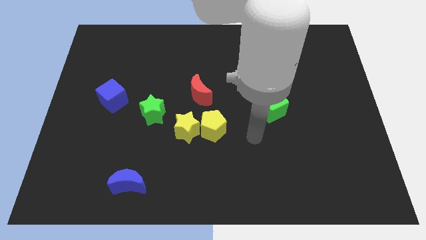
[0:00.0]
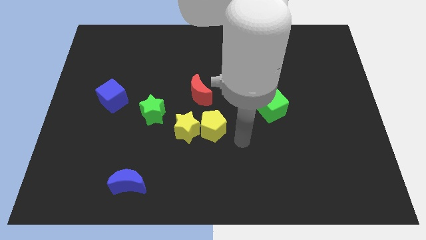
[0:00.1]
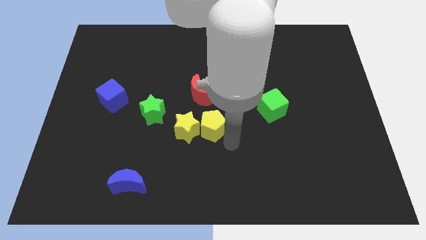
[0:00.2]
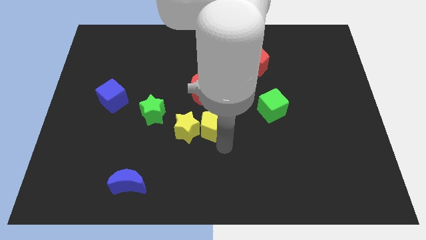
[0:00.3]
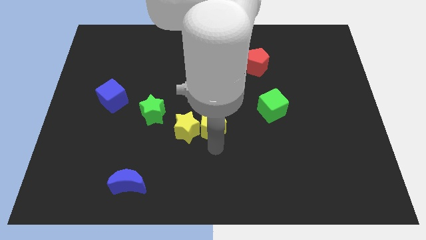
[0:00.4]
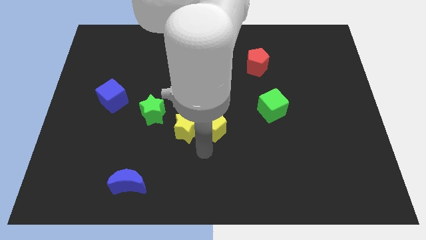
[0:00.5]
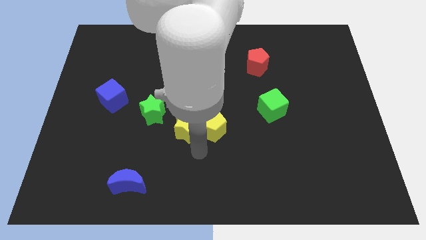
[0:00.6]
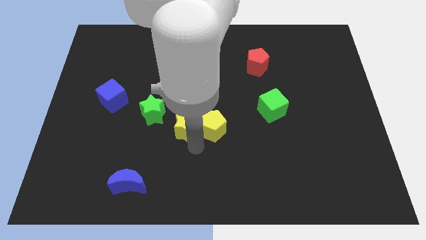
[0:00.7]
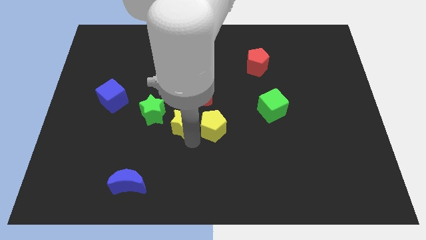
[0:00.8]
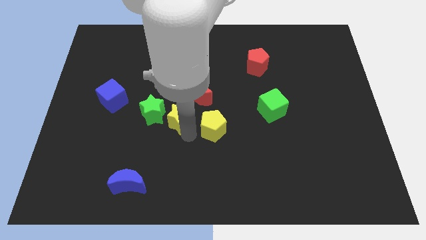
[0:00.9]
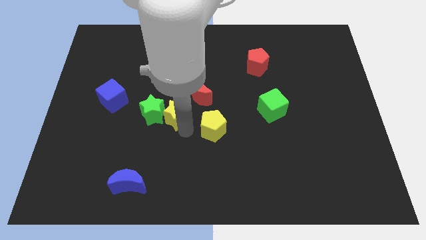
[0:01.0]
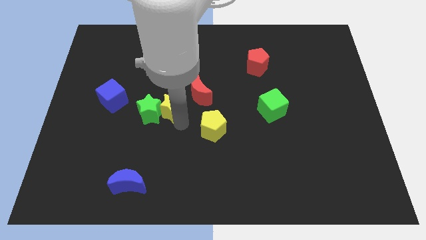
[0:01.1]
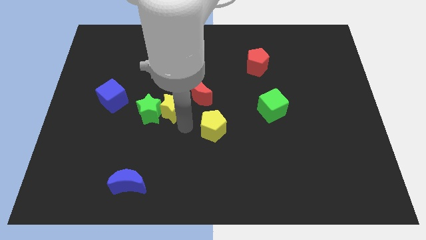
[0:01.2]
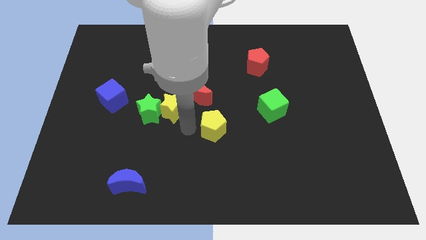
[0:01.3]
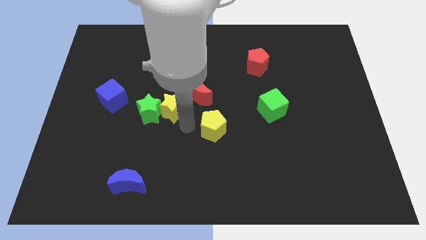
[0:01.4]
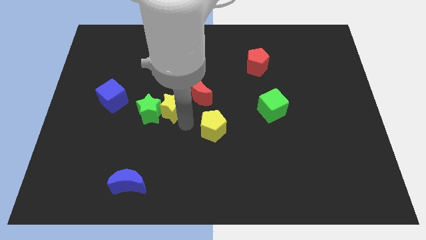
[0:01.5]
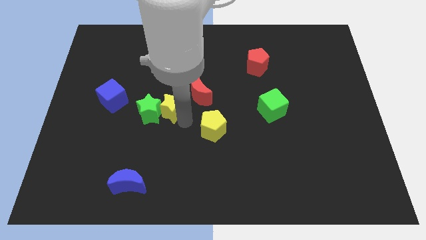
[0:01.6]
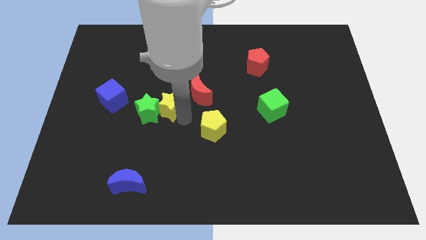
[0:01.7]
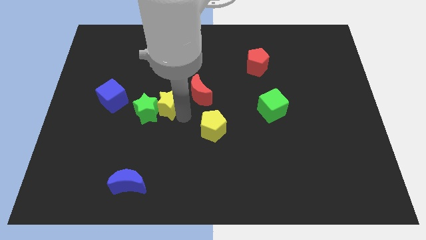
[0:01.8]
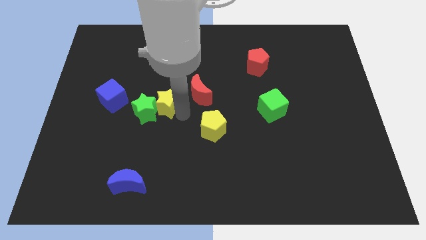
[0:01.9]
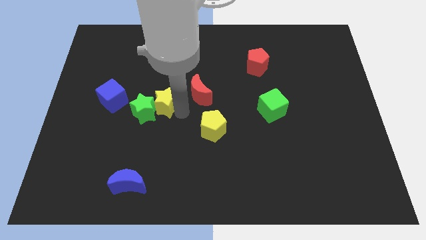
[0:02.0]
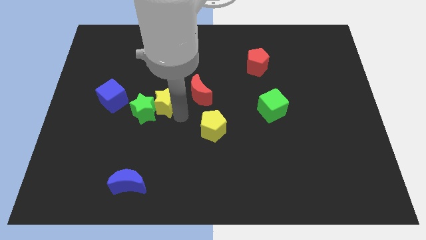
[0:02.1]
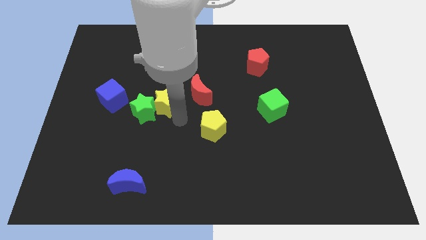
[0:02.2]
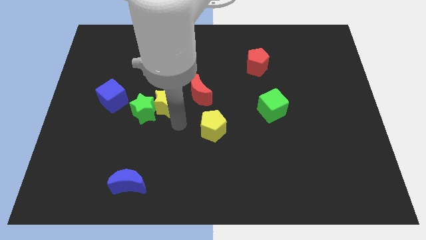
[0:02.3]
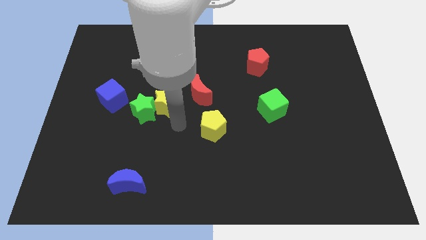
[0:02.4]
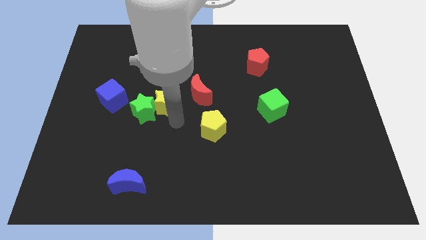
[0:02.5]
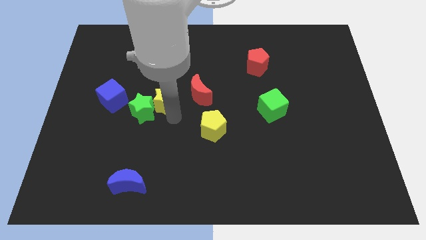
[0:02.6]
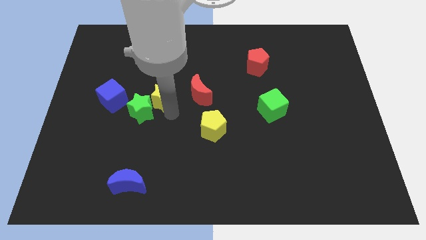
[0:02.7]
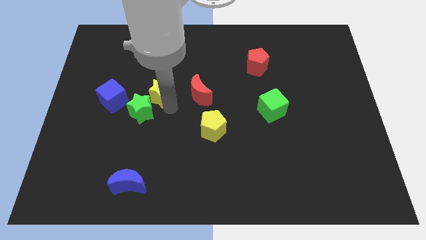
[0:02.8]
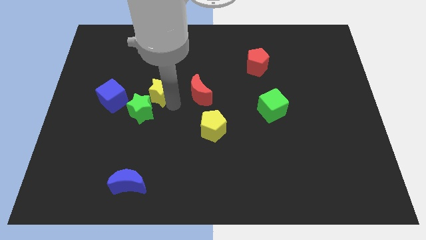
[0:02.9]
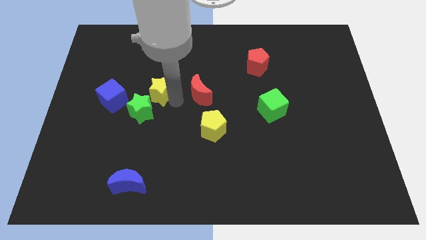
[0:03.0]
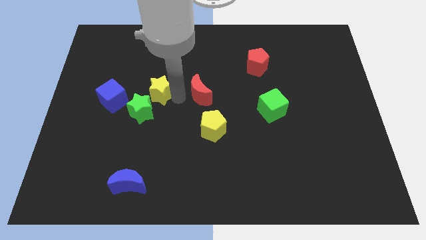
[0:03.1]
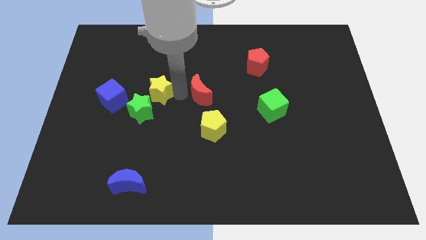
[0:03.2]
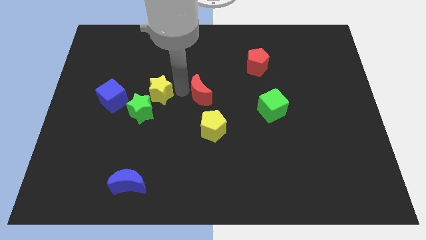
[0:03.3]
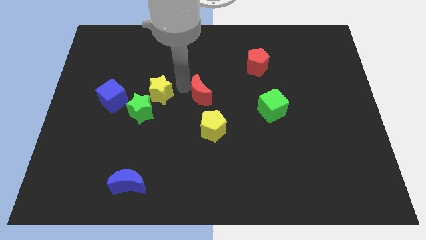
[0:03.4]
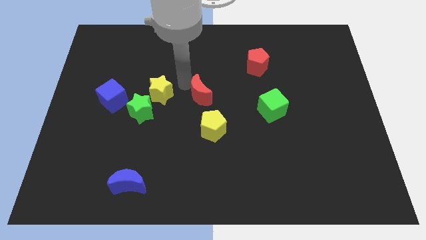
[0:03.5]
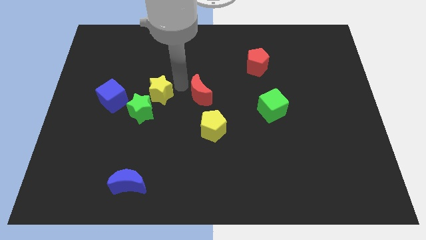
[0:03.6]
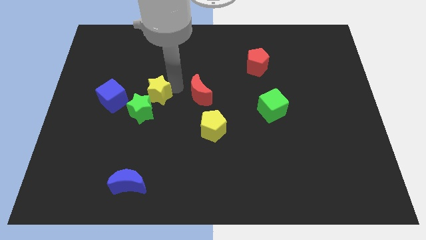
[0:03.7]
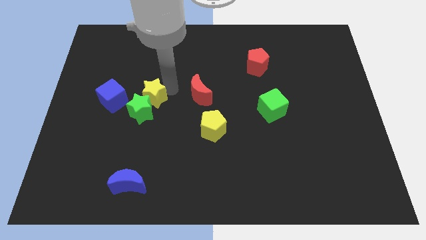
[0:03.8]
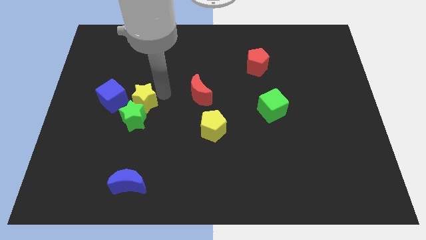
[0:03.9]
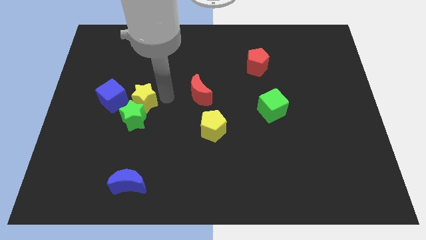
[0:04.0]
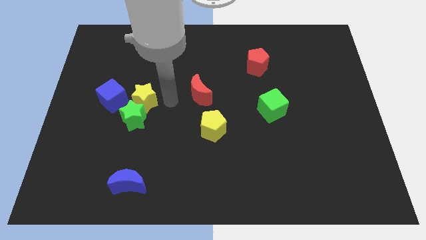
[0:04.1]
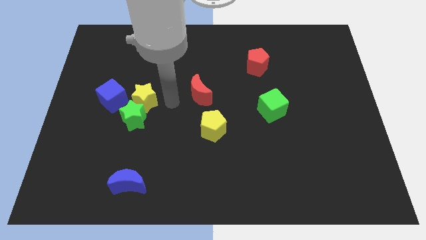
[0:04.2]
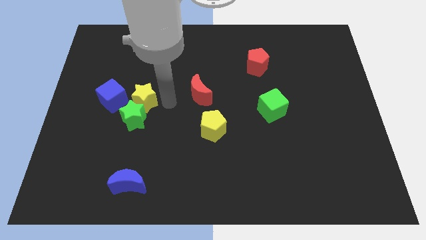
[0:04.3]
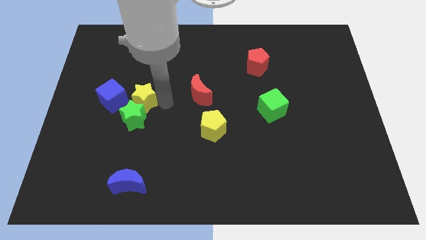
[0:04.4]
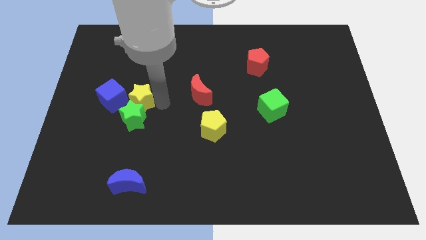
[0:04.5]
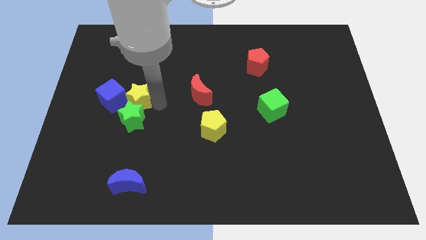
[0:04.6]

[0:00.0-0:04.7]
put the yellow star towards the blue cube

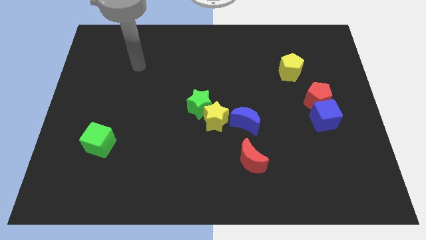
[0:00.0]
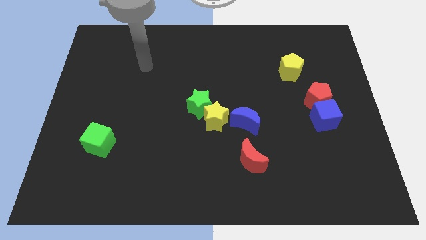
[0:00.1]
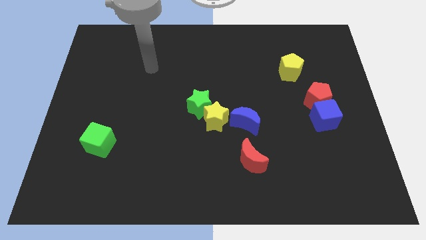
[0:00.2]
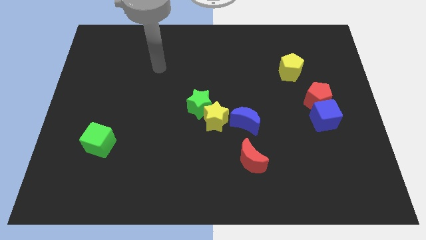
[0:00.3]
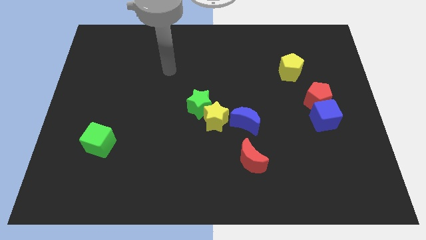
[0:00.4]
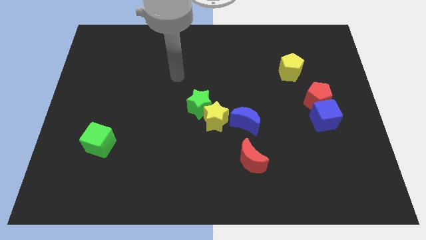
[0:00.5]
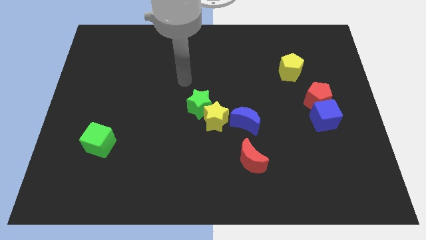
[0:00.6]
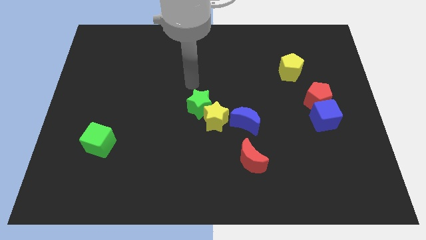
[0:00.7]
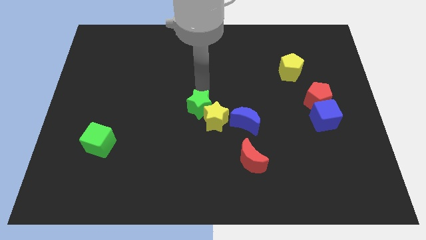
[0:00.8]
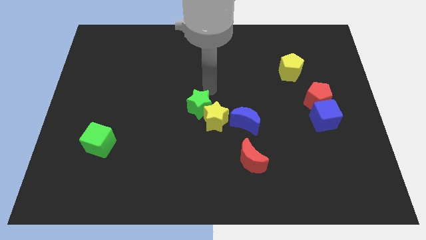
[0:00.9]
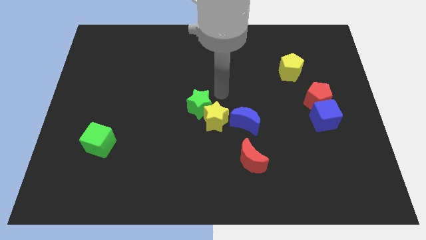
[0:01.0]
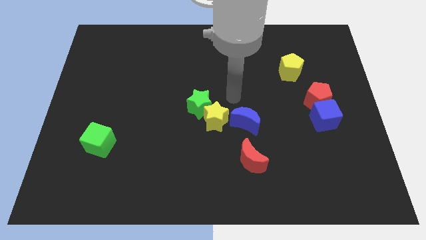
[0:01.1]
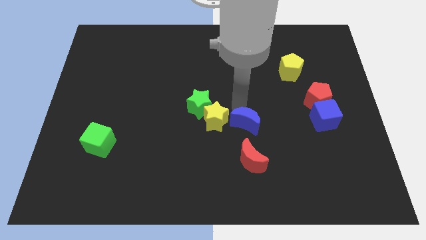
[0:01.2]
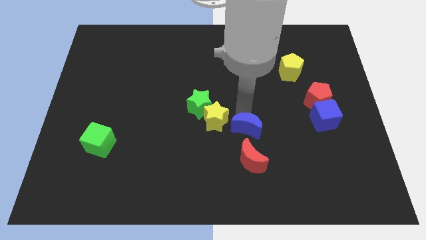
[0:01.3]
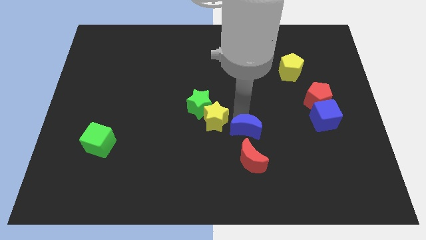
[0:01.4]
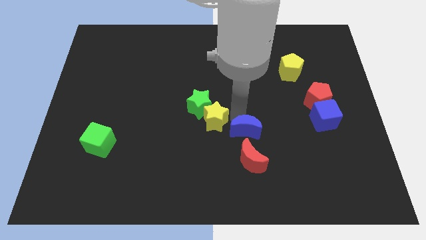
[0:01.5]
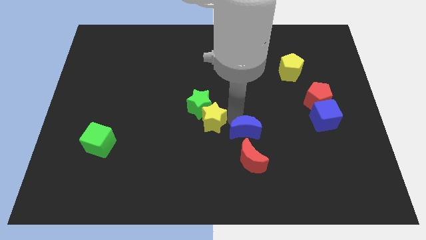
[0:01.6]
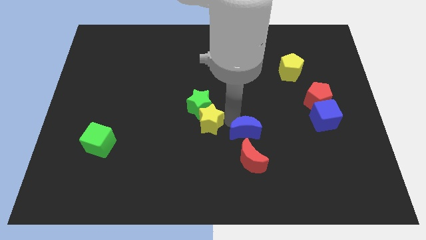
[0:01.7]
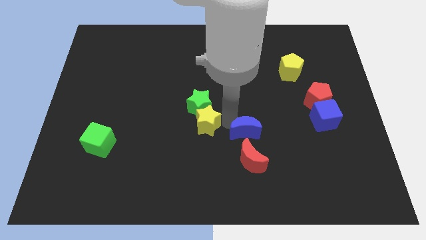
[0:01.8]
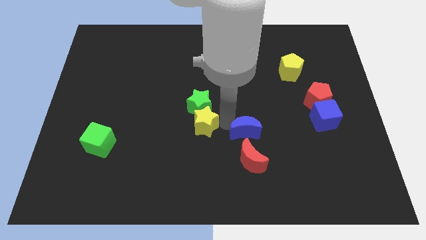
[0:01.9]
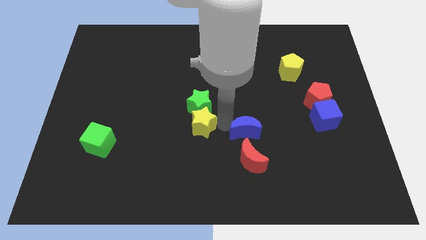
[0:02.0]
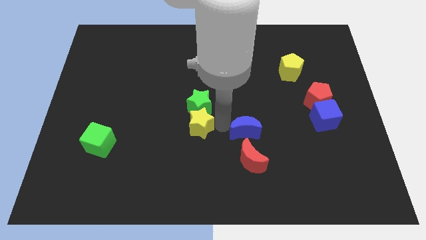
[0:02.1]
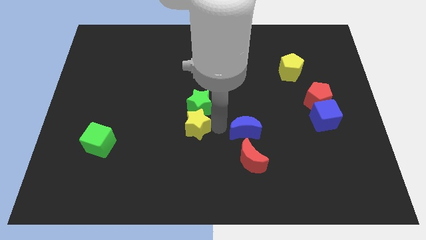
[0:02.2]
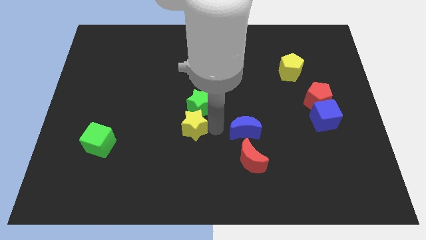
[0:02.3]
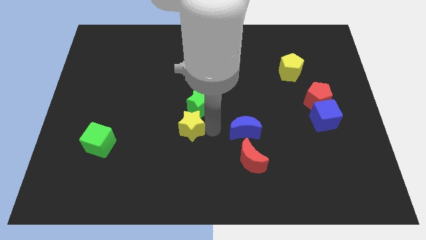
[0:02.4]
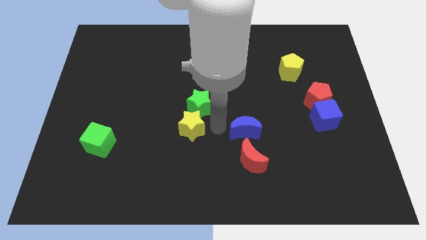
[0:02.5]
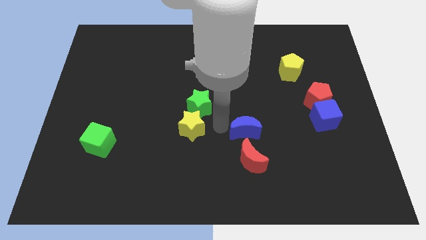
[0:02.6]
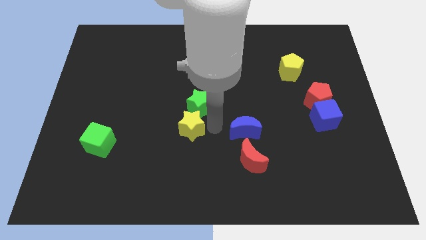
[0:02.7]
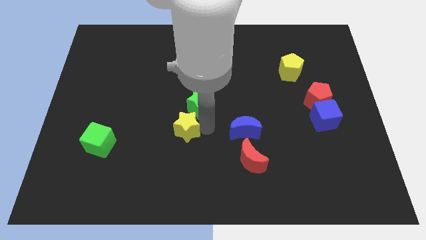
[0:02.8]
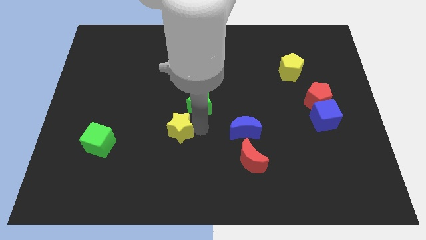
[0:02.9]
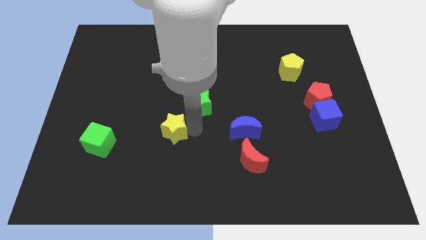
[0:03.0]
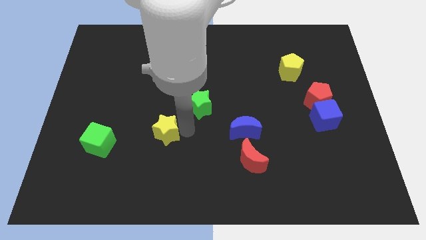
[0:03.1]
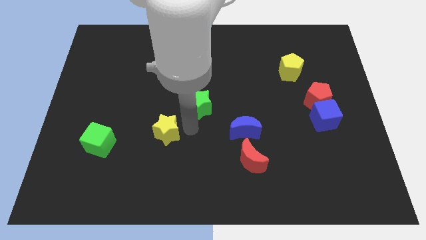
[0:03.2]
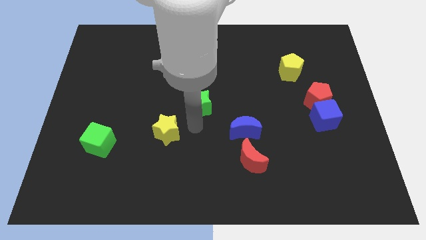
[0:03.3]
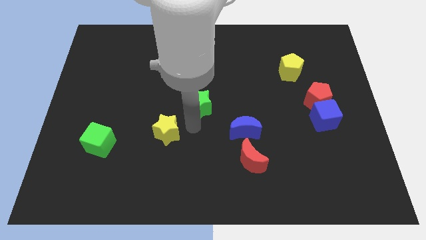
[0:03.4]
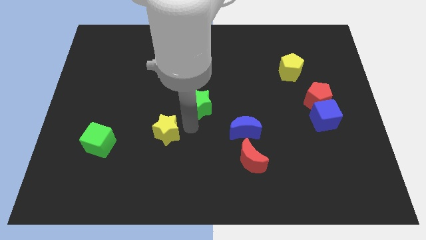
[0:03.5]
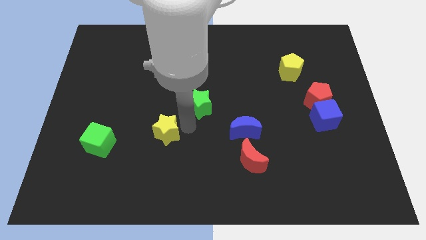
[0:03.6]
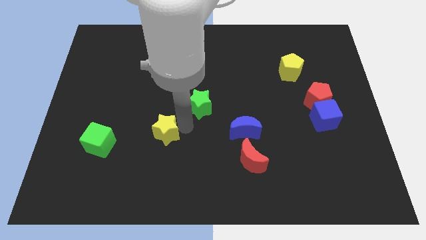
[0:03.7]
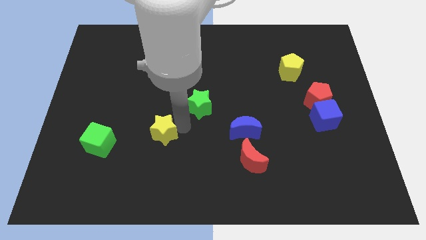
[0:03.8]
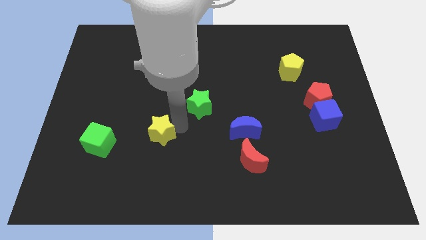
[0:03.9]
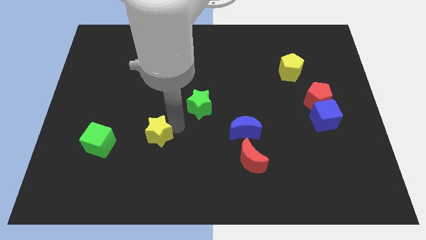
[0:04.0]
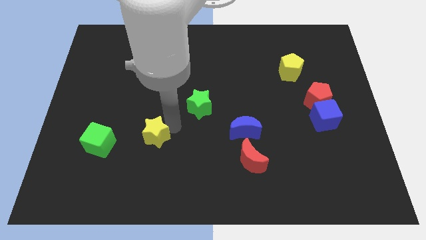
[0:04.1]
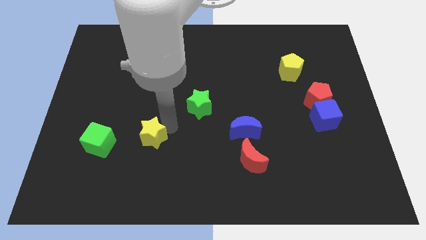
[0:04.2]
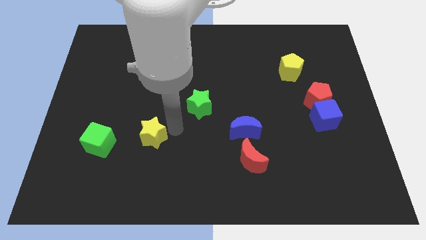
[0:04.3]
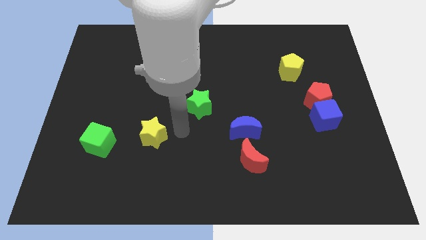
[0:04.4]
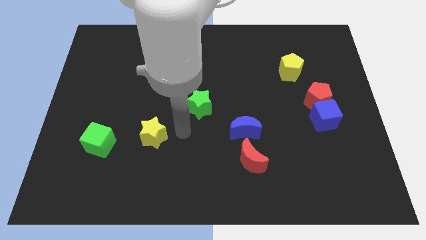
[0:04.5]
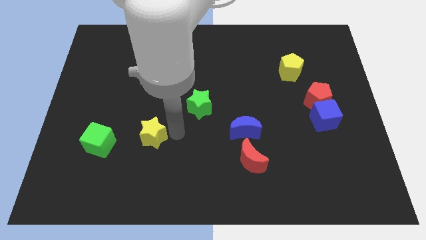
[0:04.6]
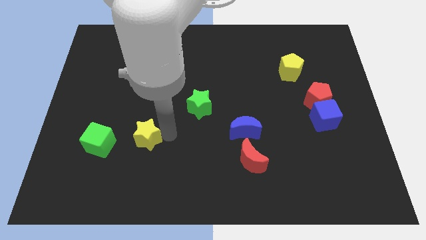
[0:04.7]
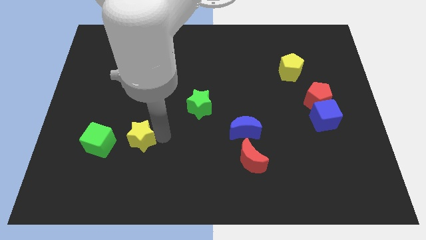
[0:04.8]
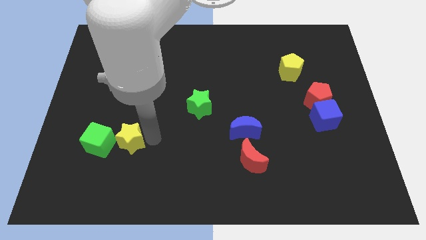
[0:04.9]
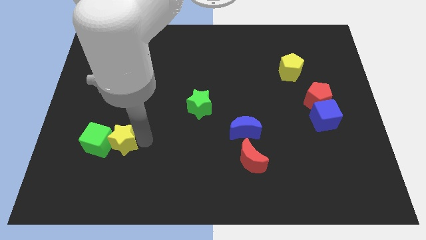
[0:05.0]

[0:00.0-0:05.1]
push the yellow star next to the green cube
